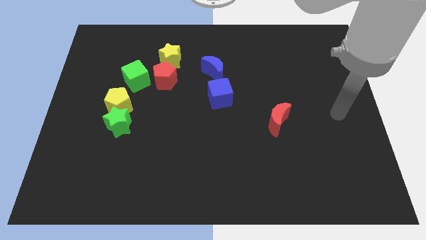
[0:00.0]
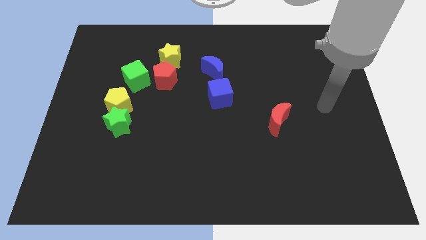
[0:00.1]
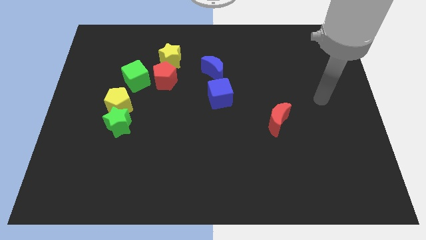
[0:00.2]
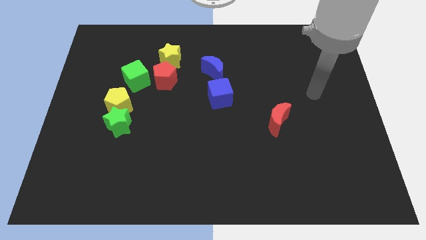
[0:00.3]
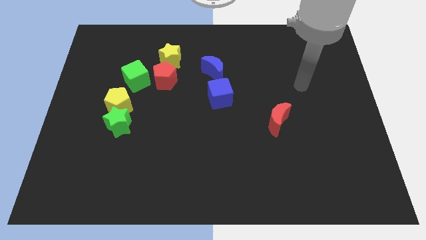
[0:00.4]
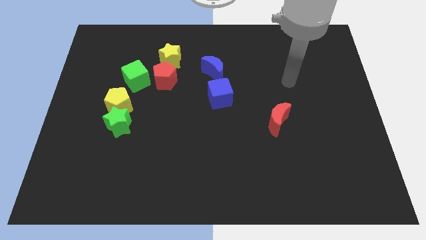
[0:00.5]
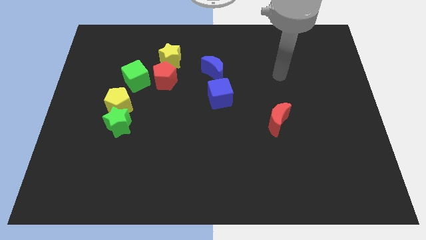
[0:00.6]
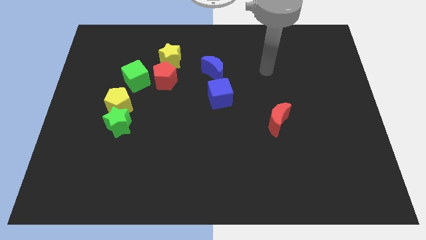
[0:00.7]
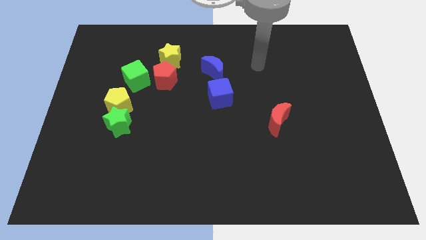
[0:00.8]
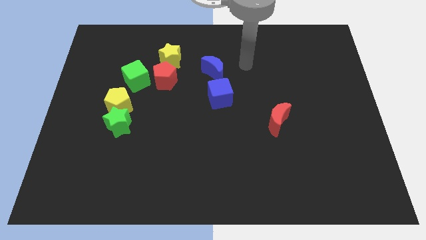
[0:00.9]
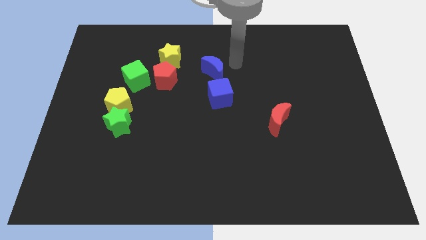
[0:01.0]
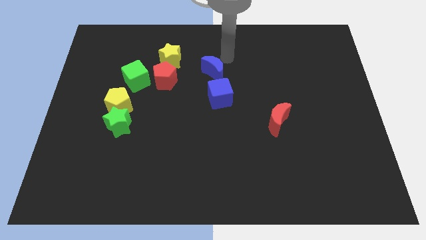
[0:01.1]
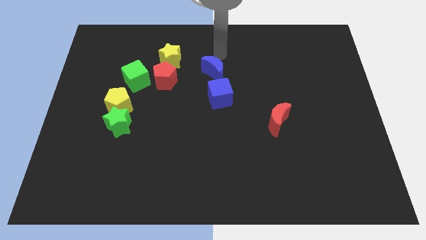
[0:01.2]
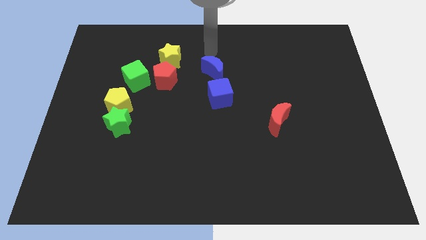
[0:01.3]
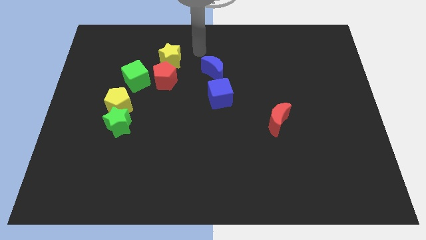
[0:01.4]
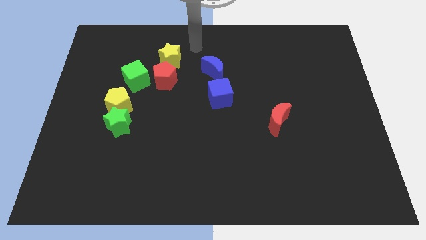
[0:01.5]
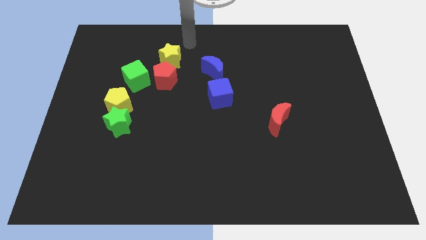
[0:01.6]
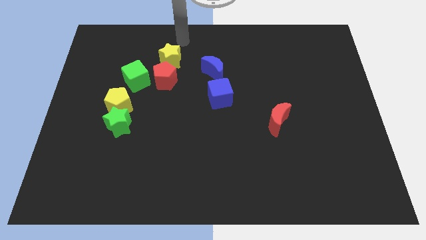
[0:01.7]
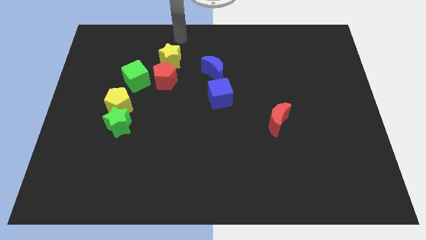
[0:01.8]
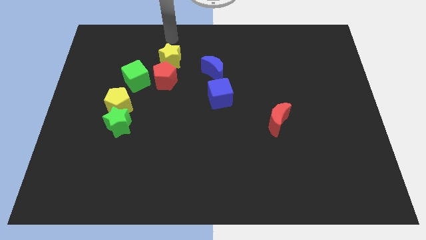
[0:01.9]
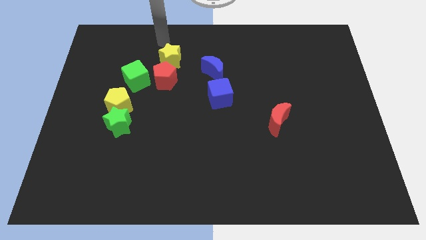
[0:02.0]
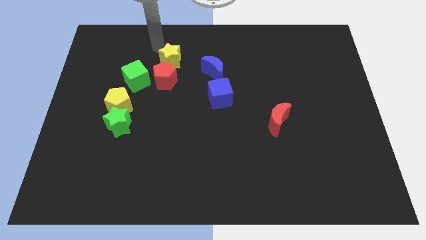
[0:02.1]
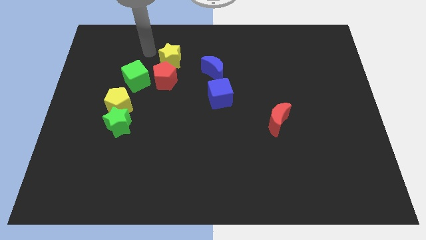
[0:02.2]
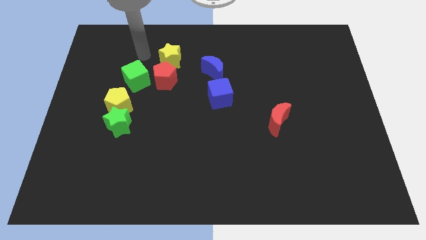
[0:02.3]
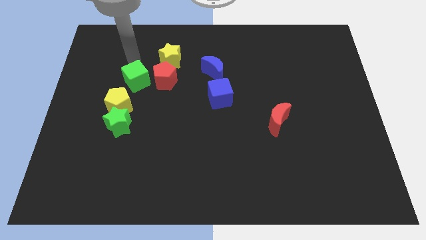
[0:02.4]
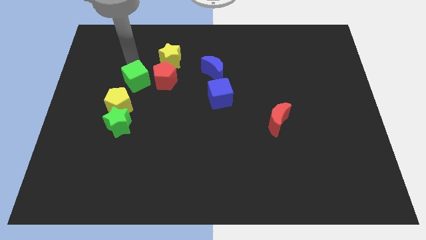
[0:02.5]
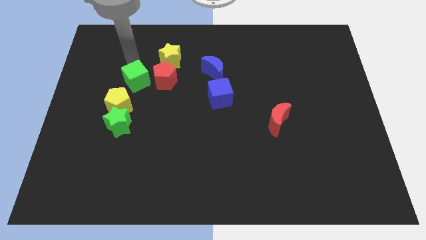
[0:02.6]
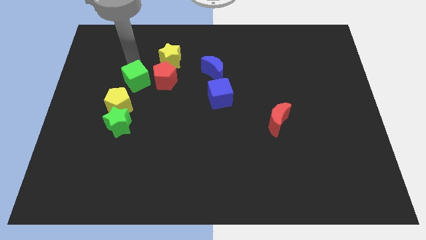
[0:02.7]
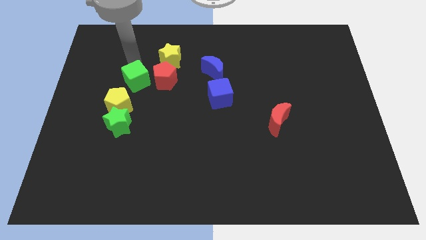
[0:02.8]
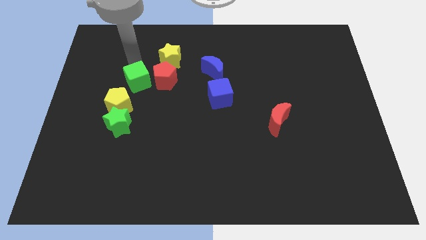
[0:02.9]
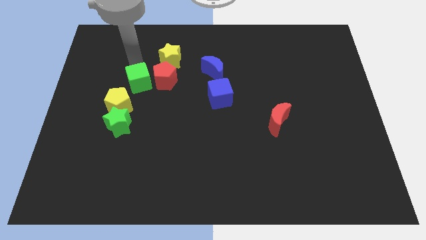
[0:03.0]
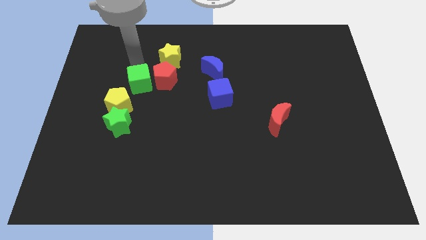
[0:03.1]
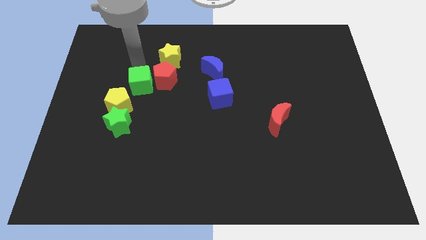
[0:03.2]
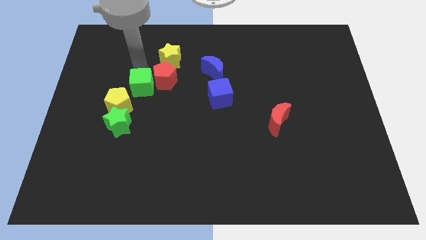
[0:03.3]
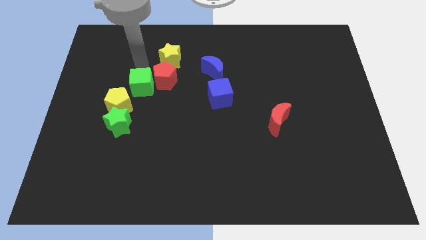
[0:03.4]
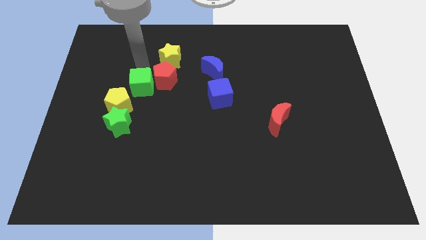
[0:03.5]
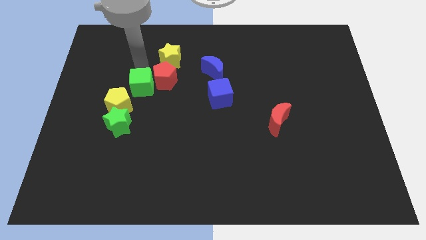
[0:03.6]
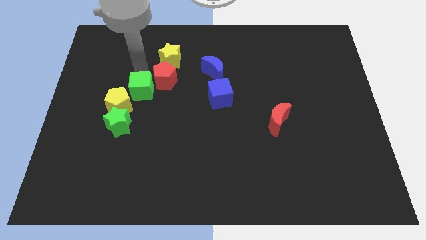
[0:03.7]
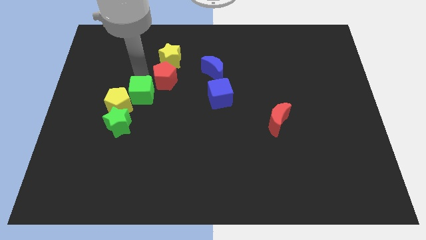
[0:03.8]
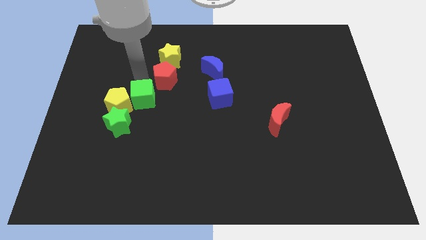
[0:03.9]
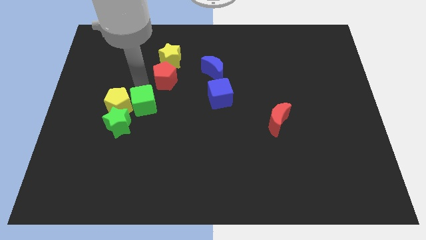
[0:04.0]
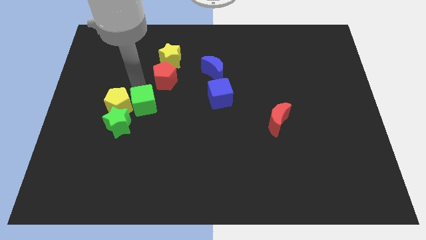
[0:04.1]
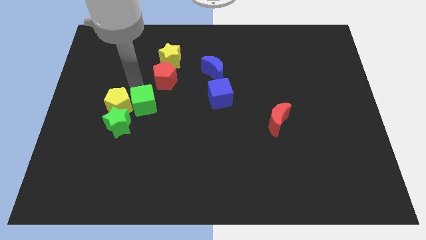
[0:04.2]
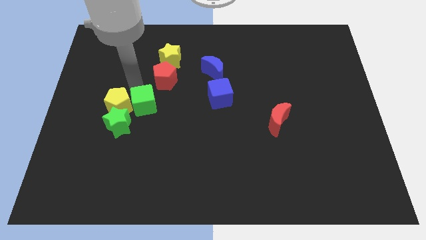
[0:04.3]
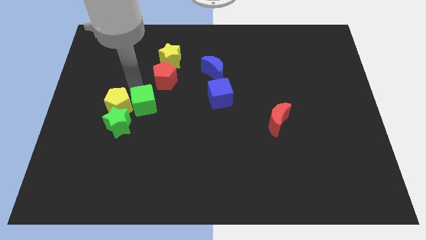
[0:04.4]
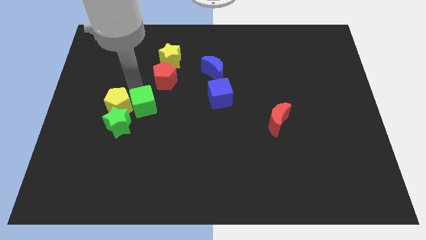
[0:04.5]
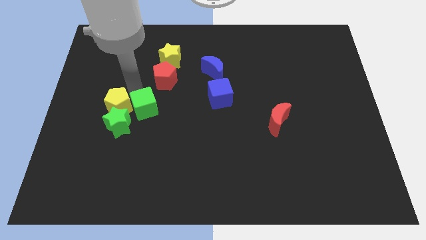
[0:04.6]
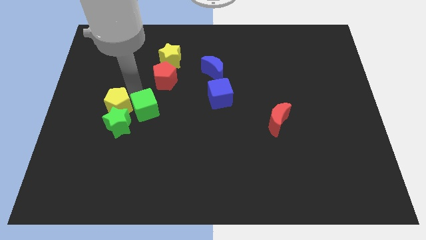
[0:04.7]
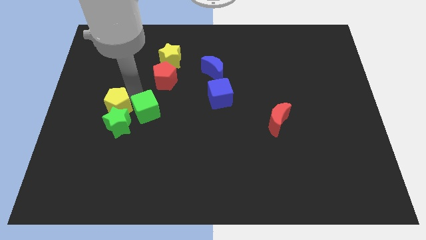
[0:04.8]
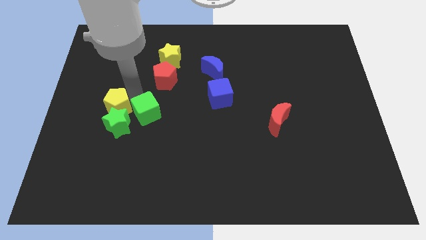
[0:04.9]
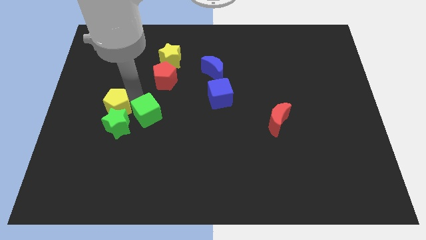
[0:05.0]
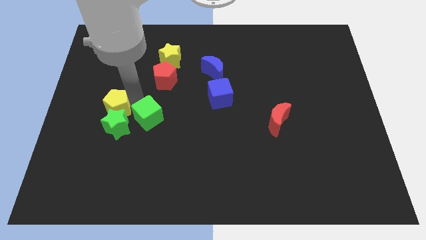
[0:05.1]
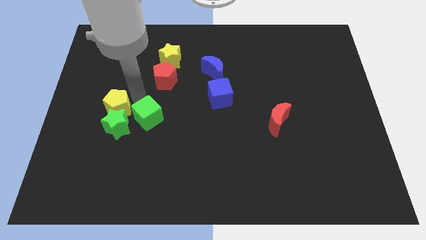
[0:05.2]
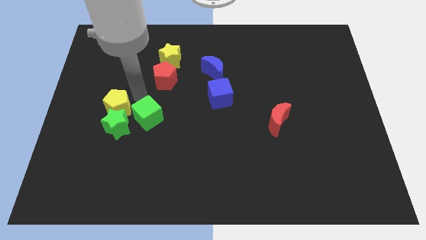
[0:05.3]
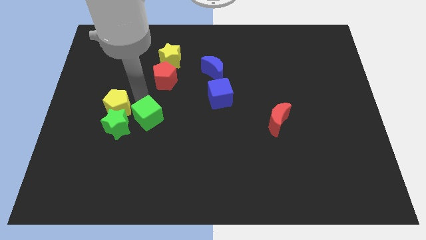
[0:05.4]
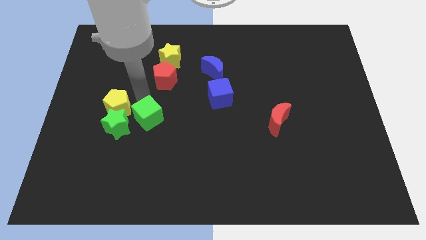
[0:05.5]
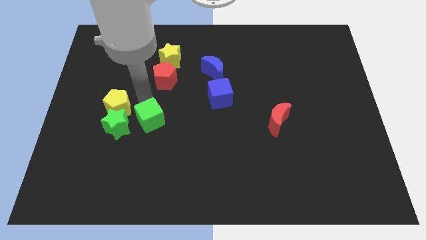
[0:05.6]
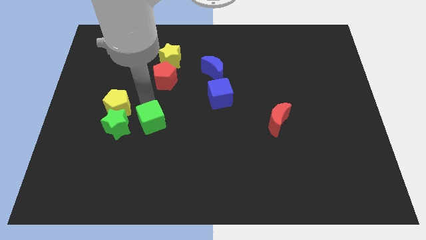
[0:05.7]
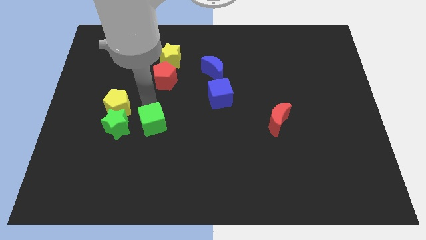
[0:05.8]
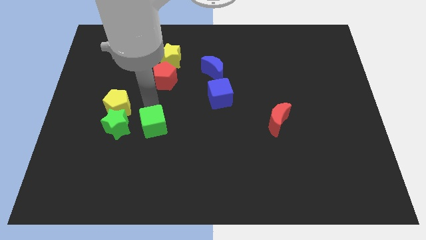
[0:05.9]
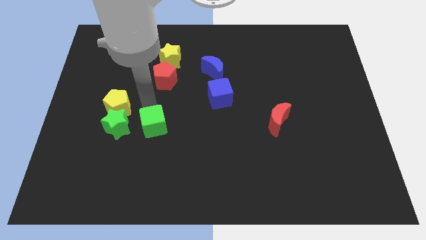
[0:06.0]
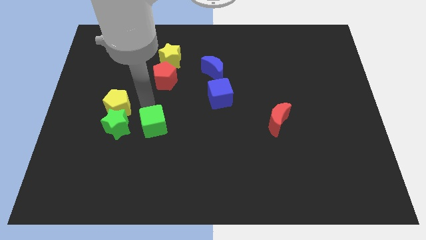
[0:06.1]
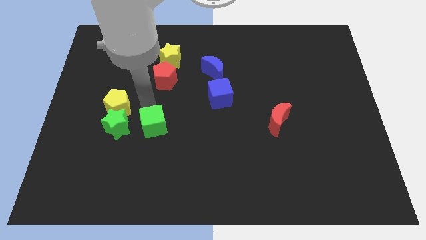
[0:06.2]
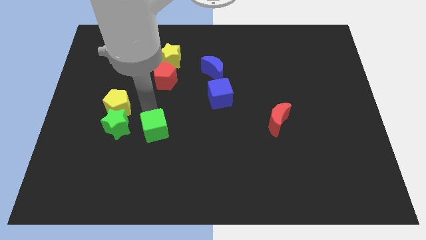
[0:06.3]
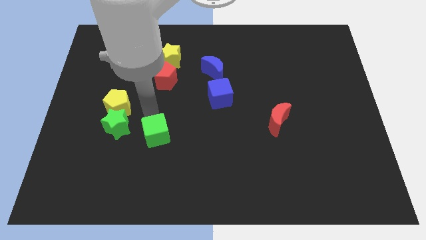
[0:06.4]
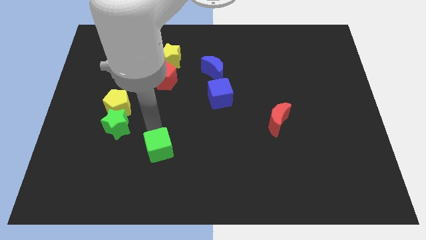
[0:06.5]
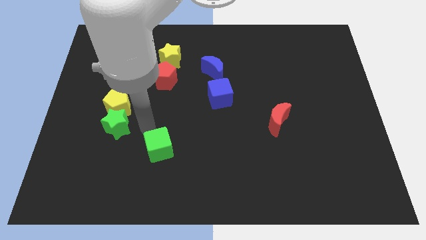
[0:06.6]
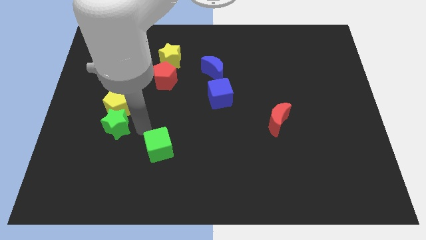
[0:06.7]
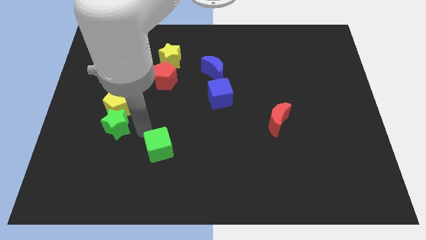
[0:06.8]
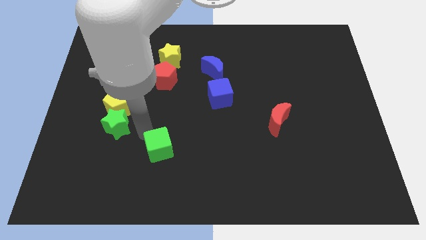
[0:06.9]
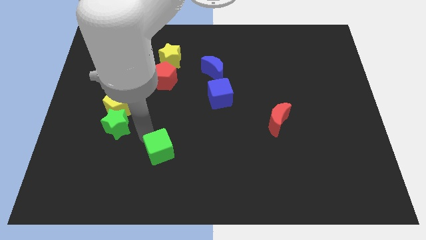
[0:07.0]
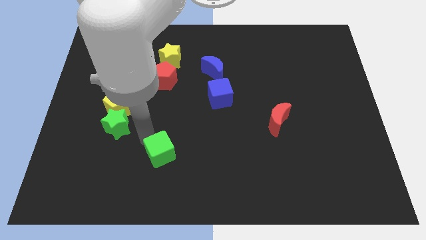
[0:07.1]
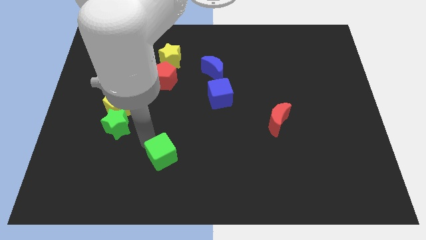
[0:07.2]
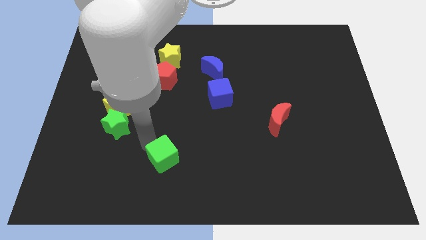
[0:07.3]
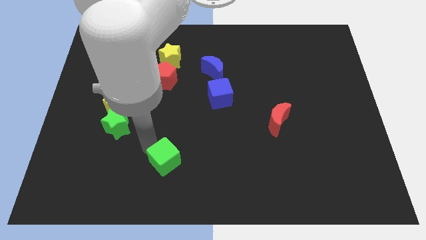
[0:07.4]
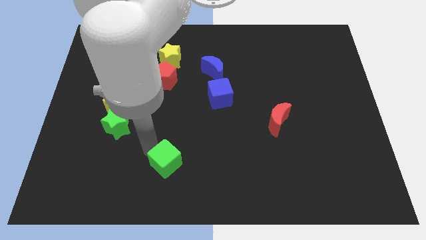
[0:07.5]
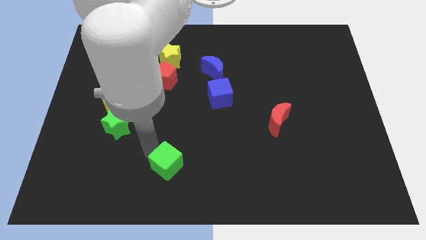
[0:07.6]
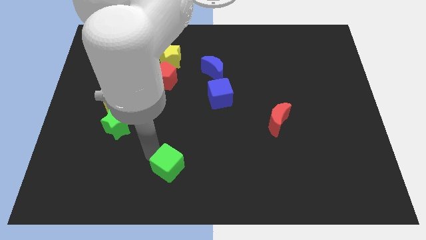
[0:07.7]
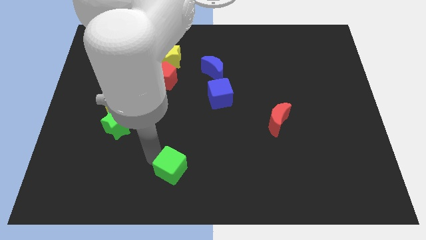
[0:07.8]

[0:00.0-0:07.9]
slide the green cube to the bottom
